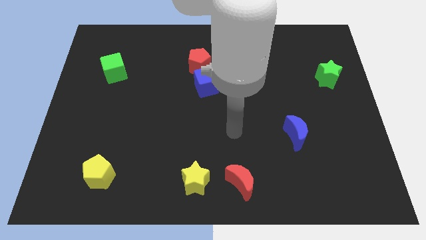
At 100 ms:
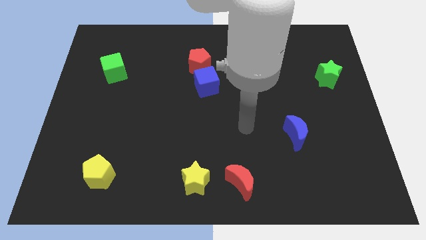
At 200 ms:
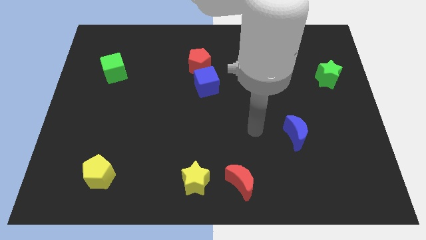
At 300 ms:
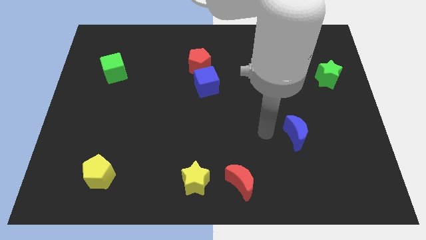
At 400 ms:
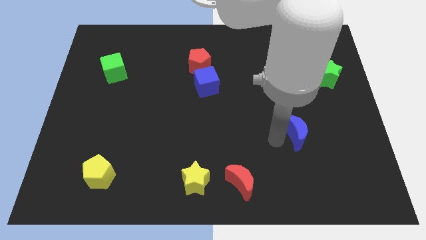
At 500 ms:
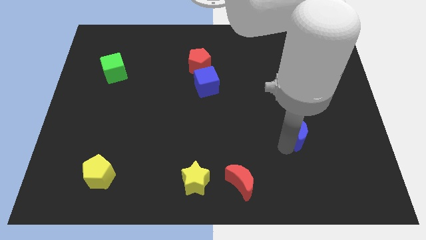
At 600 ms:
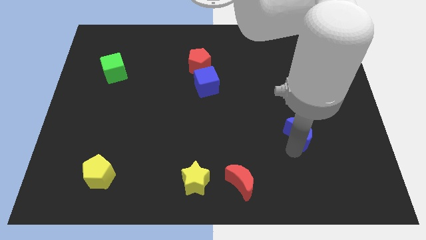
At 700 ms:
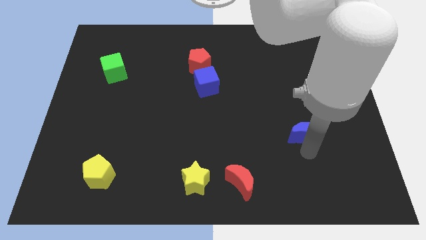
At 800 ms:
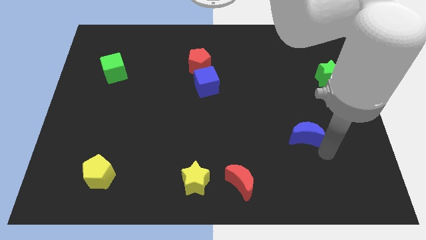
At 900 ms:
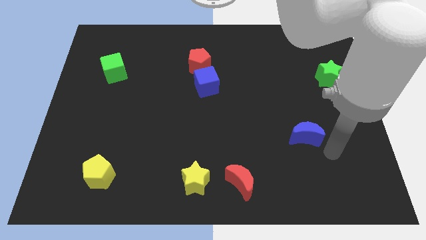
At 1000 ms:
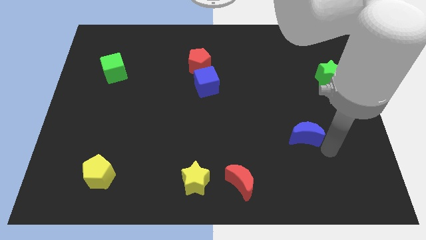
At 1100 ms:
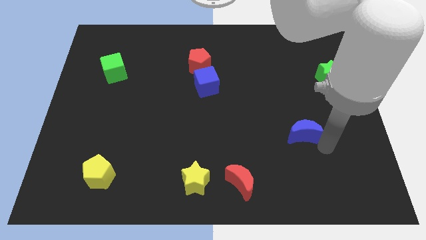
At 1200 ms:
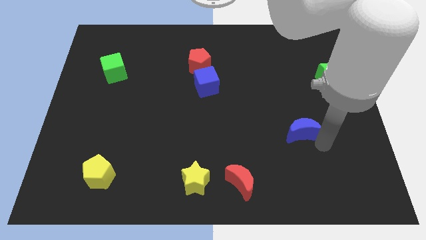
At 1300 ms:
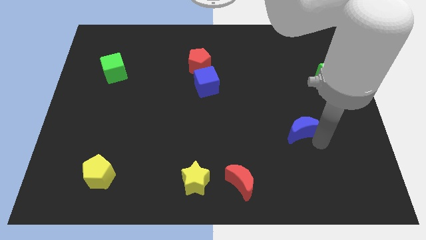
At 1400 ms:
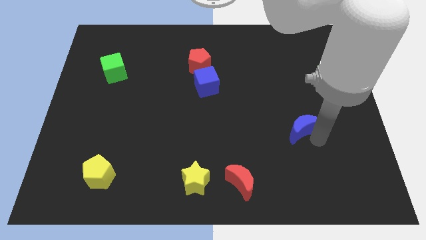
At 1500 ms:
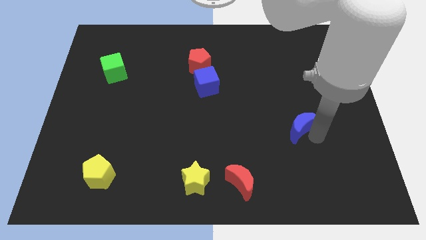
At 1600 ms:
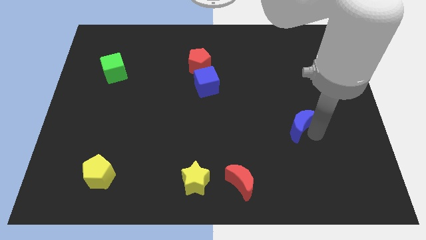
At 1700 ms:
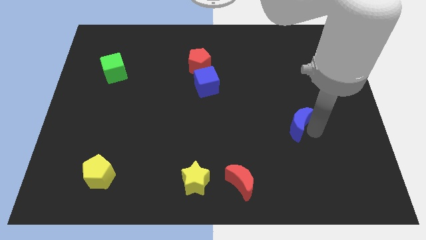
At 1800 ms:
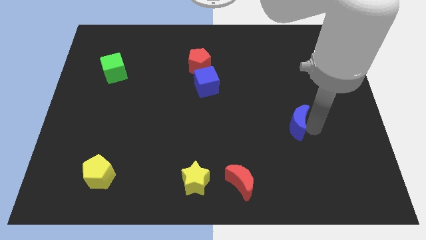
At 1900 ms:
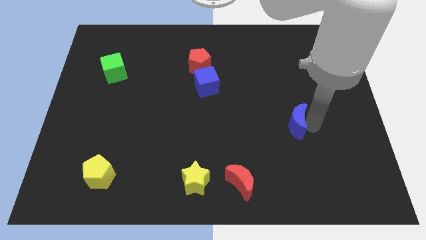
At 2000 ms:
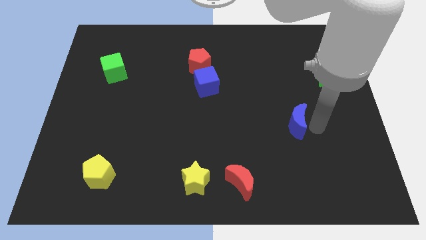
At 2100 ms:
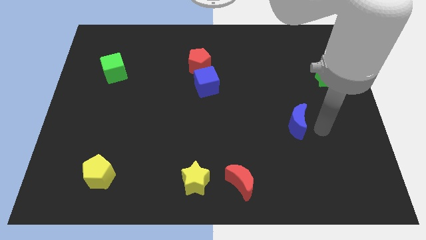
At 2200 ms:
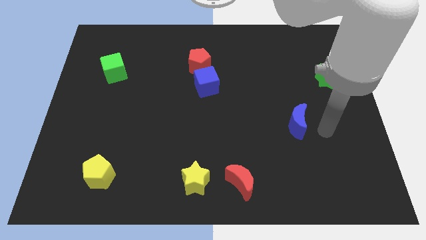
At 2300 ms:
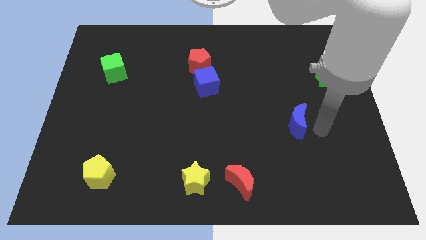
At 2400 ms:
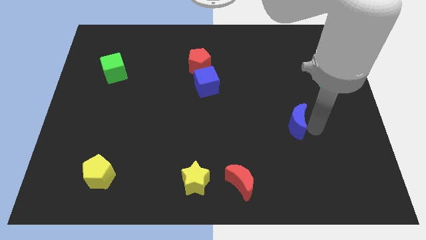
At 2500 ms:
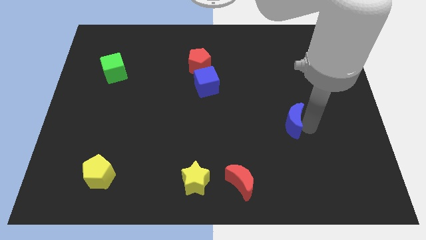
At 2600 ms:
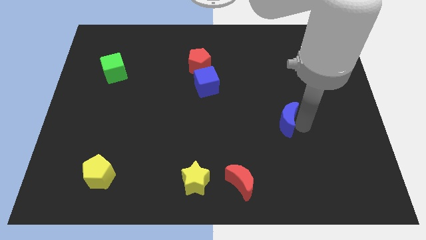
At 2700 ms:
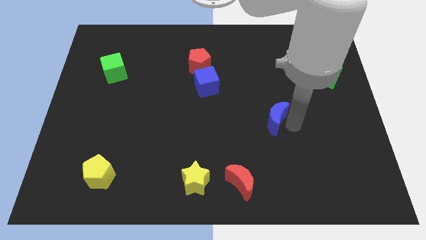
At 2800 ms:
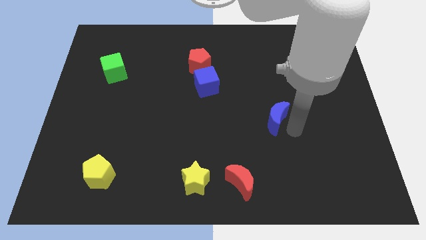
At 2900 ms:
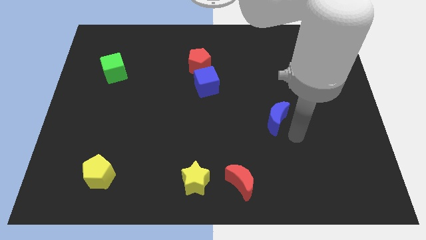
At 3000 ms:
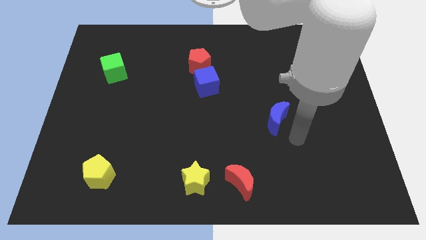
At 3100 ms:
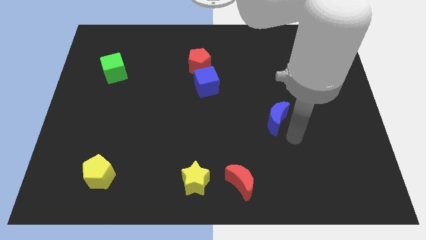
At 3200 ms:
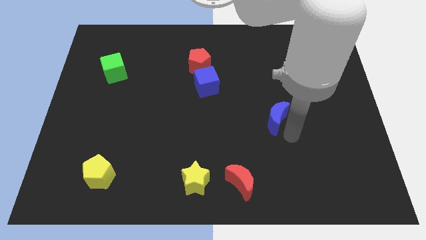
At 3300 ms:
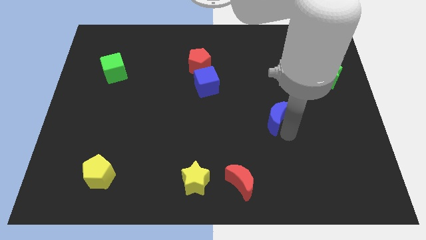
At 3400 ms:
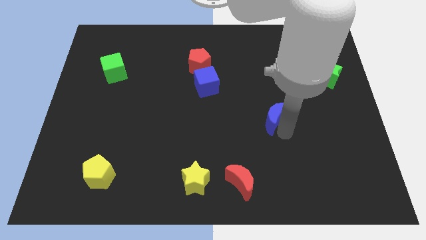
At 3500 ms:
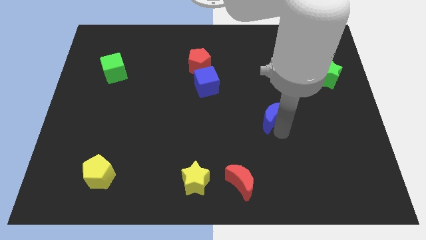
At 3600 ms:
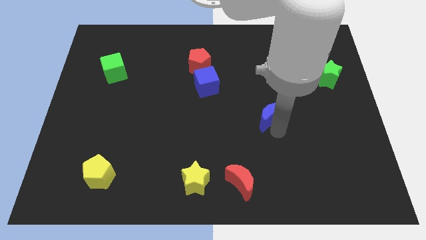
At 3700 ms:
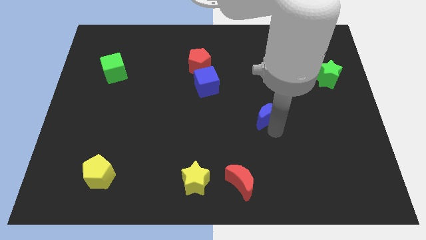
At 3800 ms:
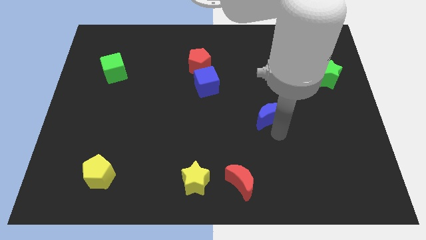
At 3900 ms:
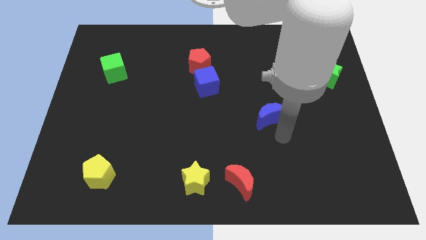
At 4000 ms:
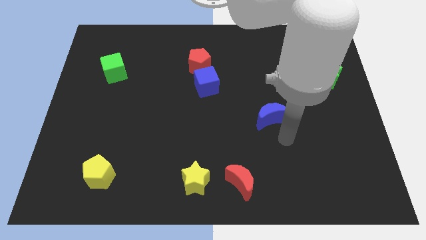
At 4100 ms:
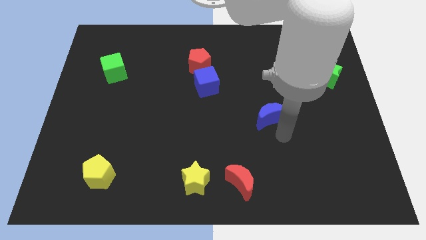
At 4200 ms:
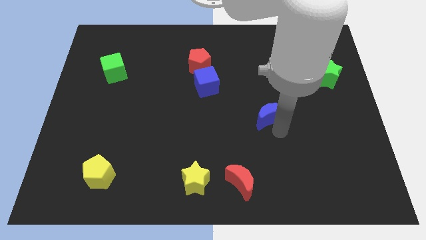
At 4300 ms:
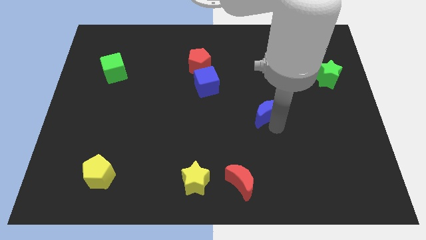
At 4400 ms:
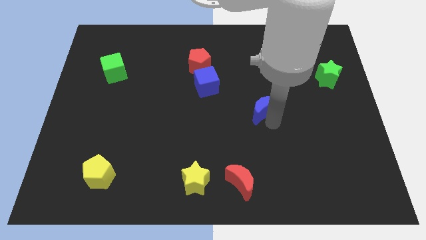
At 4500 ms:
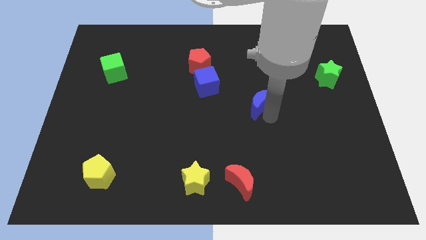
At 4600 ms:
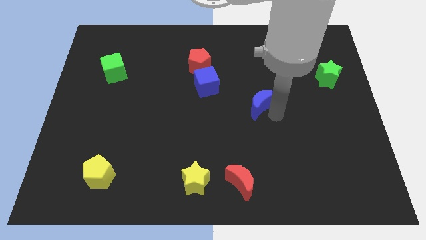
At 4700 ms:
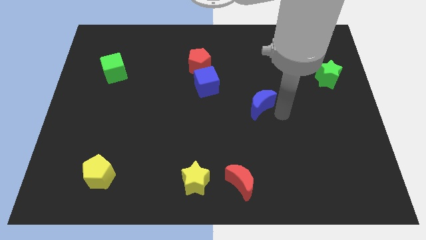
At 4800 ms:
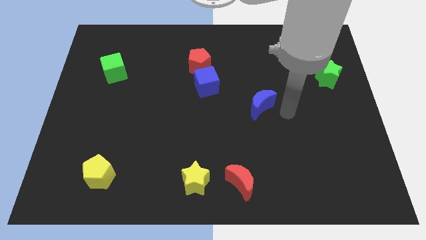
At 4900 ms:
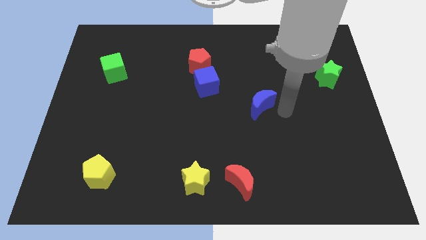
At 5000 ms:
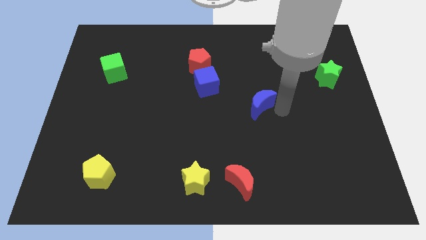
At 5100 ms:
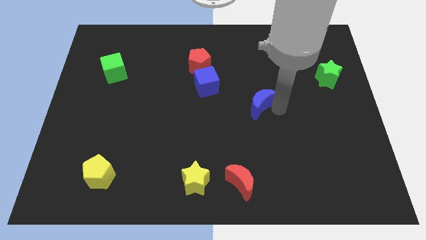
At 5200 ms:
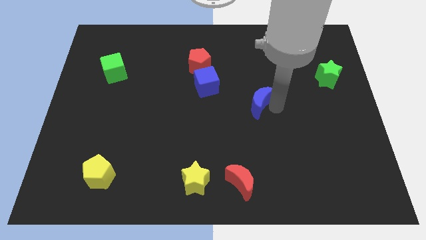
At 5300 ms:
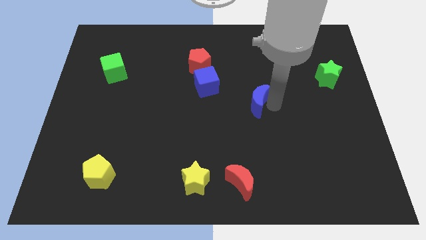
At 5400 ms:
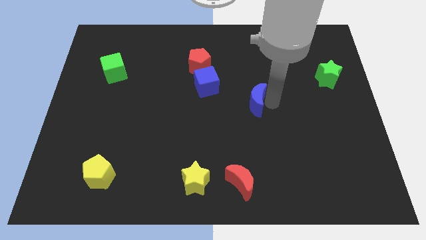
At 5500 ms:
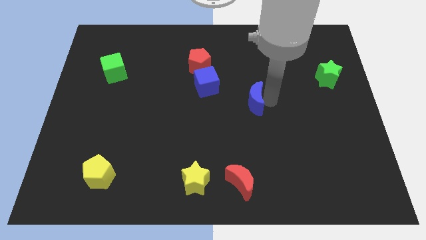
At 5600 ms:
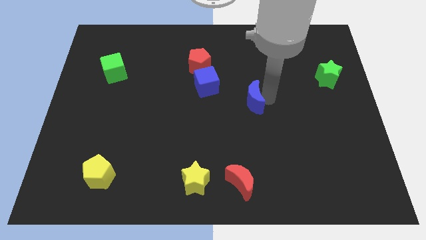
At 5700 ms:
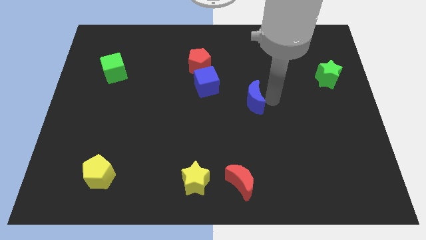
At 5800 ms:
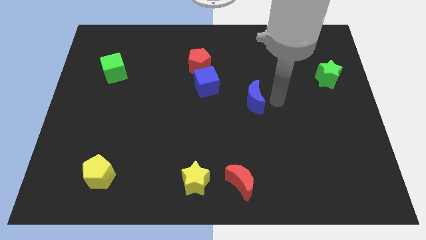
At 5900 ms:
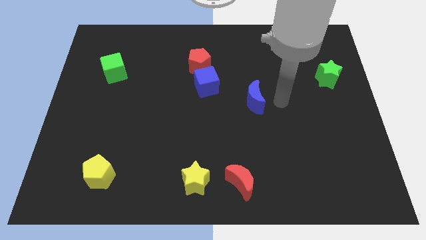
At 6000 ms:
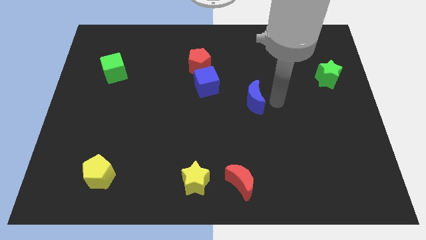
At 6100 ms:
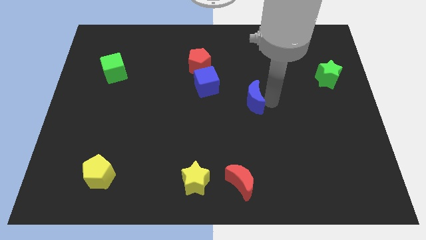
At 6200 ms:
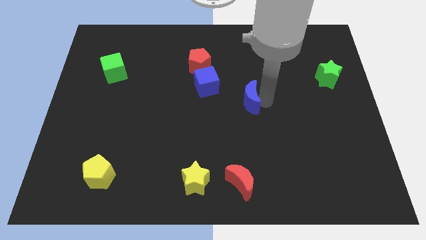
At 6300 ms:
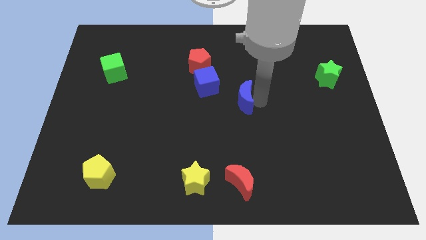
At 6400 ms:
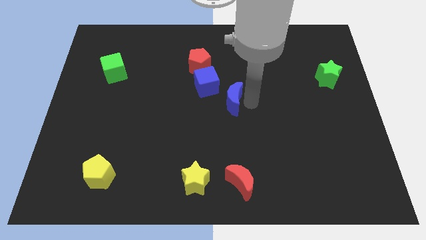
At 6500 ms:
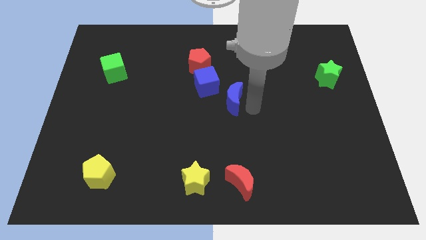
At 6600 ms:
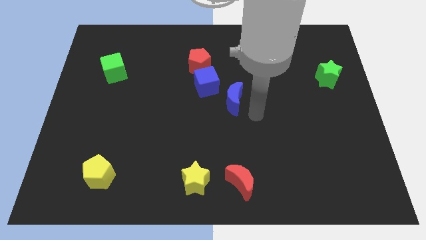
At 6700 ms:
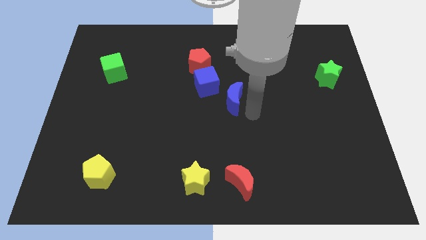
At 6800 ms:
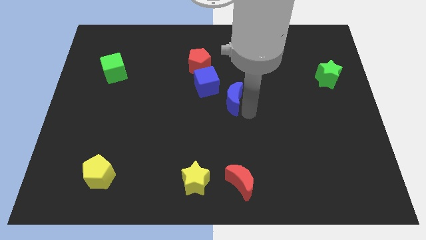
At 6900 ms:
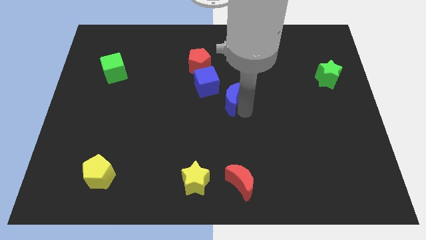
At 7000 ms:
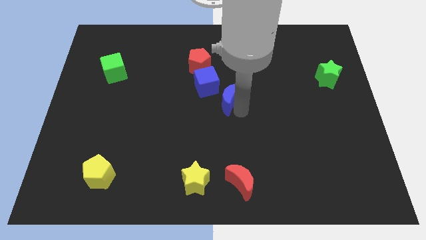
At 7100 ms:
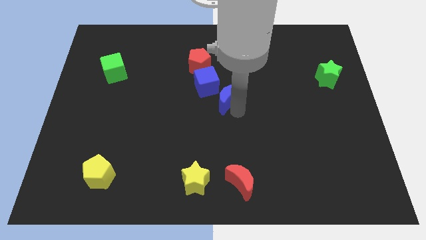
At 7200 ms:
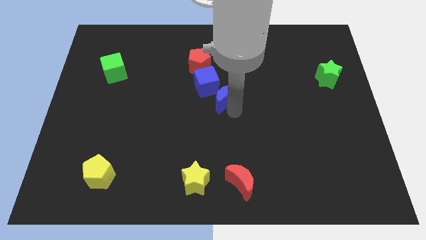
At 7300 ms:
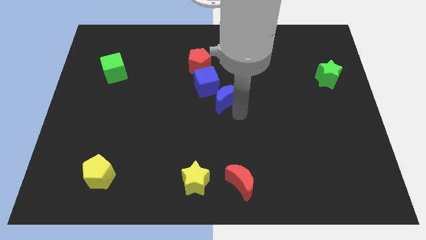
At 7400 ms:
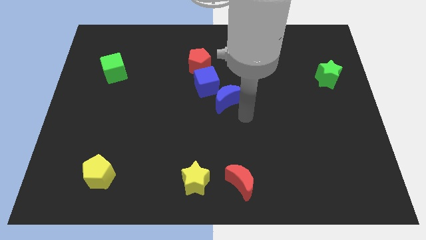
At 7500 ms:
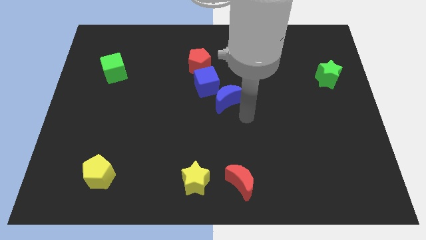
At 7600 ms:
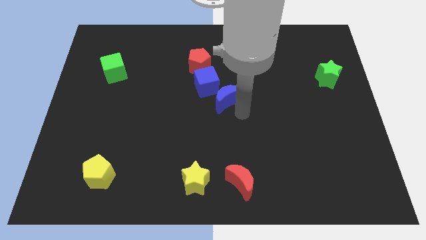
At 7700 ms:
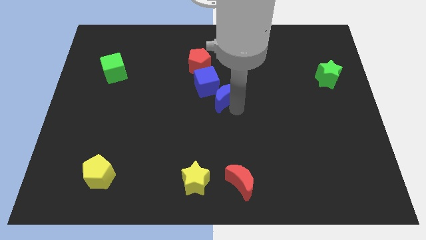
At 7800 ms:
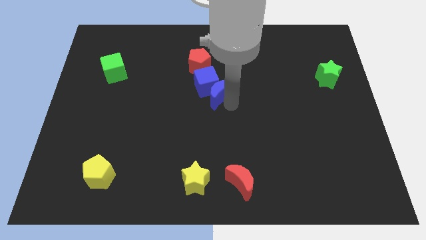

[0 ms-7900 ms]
put the blue moon next to the blue cube

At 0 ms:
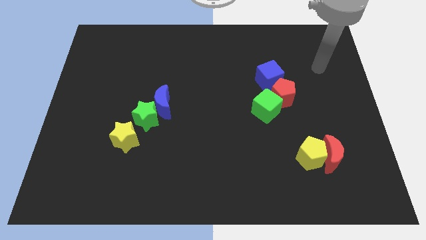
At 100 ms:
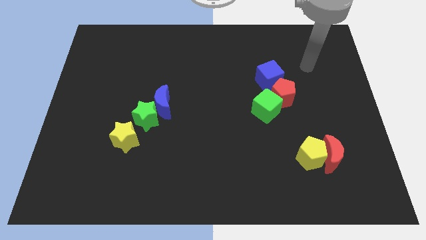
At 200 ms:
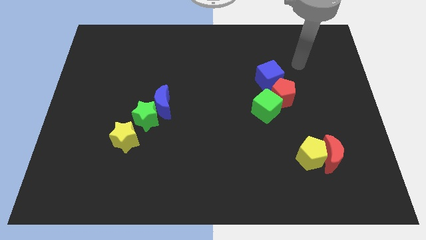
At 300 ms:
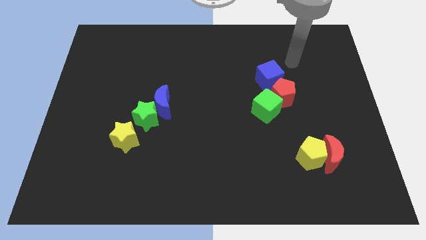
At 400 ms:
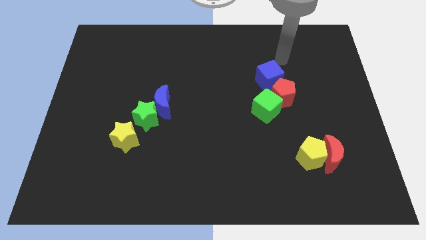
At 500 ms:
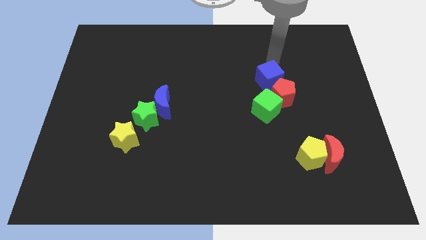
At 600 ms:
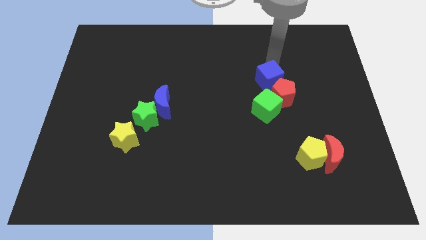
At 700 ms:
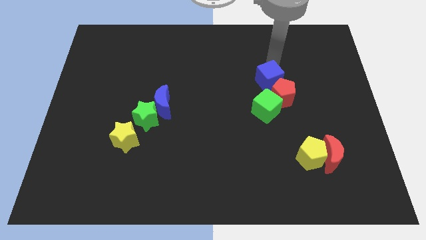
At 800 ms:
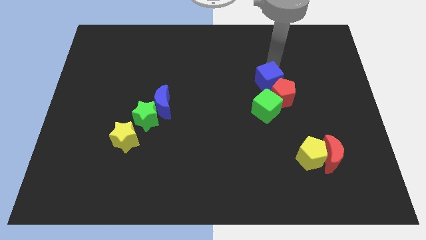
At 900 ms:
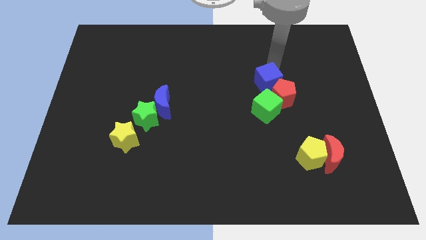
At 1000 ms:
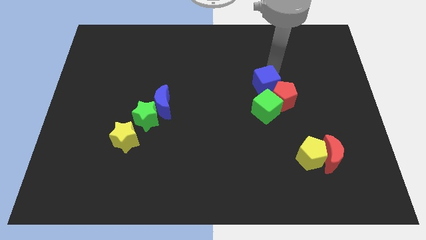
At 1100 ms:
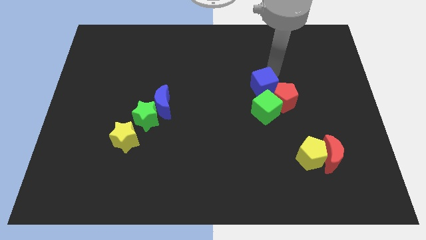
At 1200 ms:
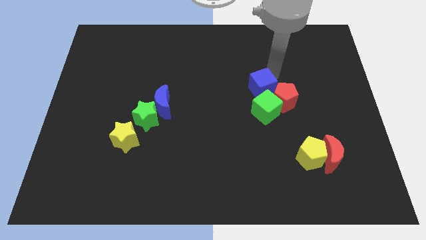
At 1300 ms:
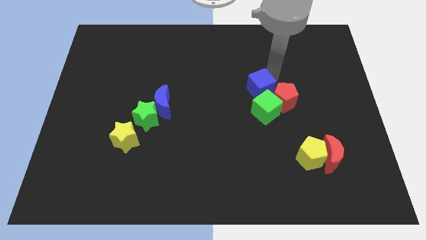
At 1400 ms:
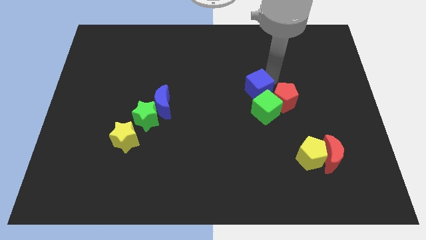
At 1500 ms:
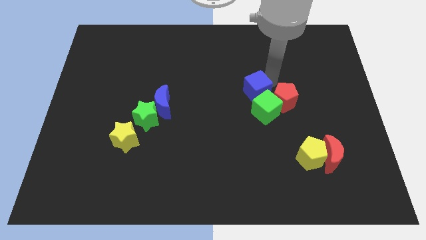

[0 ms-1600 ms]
slide the blue cube to the green cube
